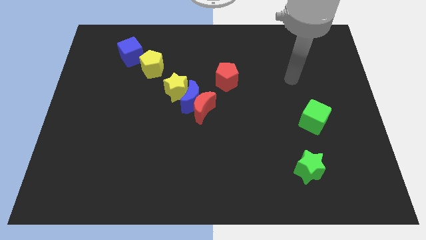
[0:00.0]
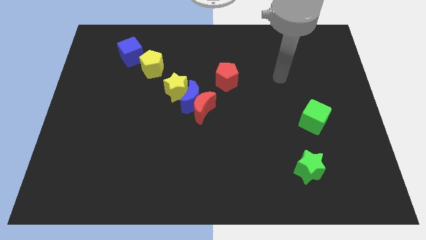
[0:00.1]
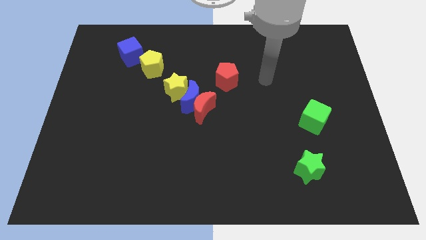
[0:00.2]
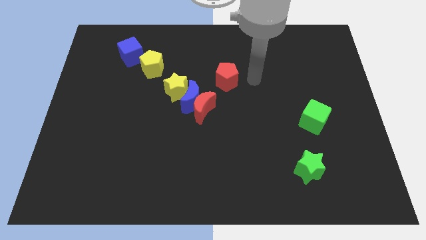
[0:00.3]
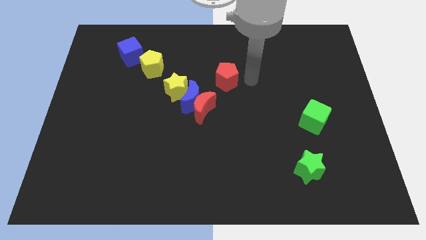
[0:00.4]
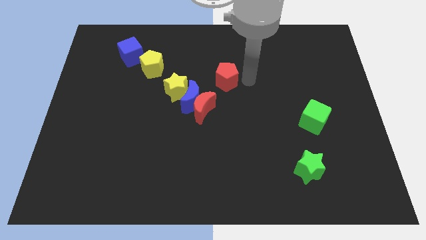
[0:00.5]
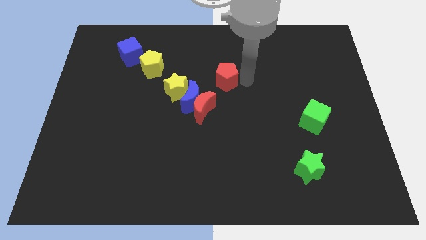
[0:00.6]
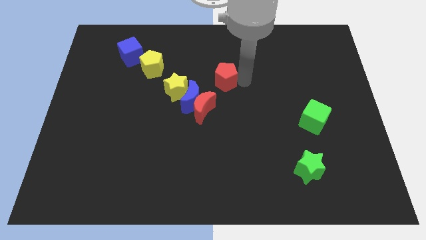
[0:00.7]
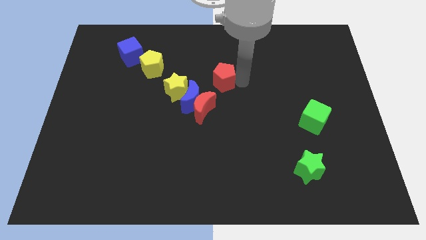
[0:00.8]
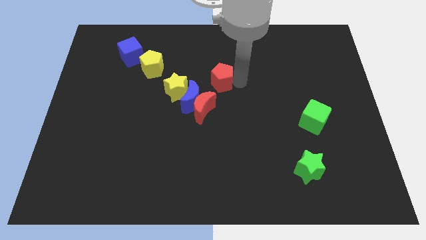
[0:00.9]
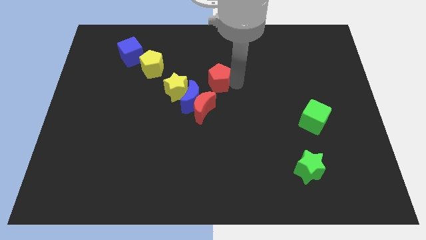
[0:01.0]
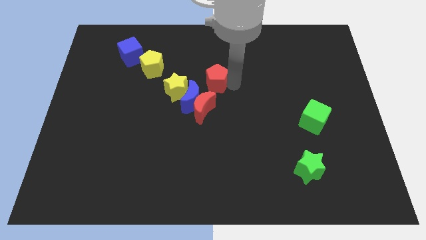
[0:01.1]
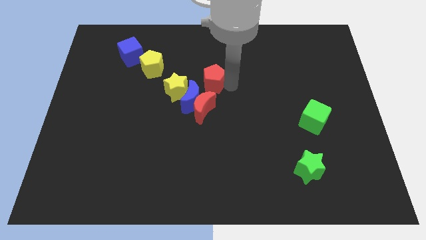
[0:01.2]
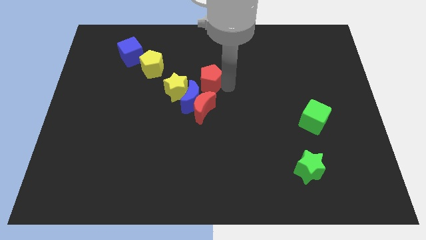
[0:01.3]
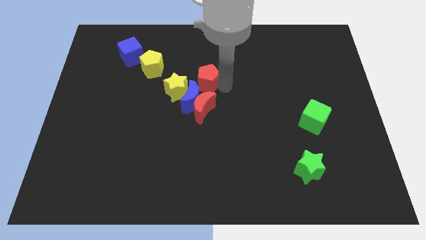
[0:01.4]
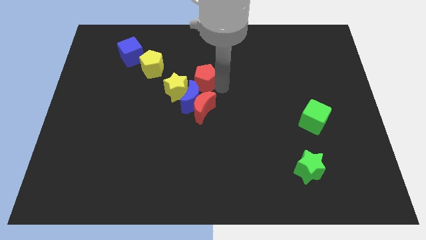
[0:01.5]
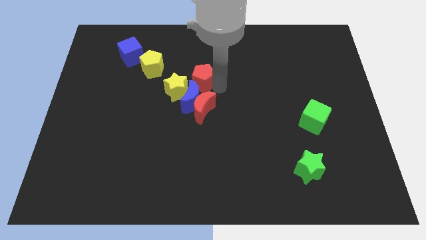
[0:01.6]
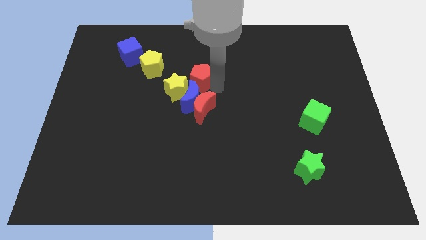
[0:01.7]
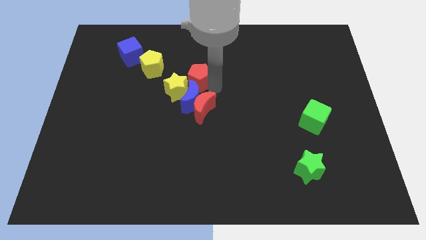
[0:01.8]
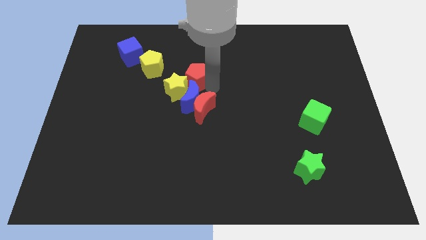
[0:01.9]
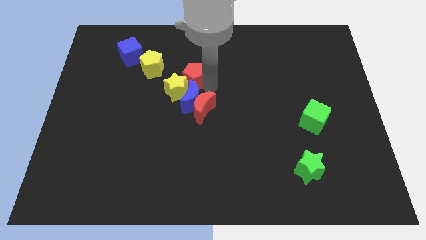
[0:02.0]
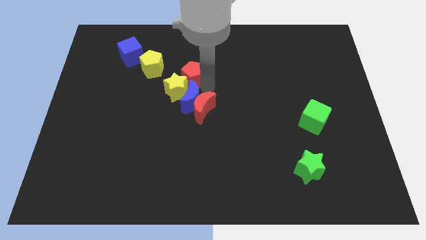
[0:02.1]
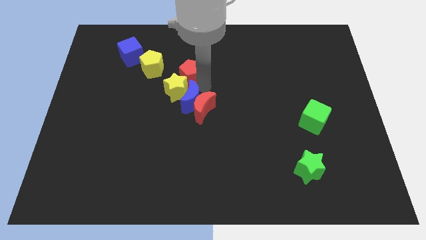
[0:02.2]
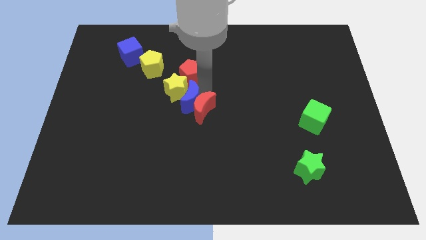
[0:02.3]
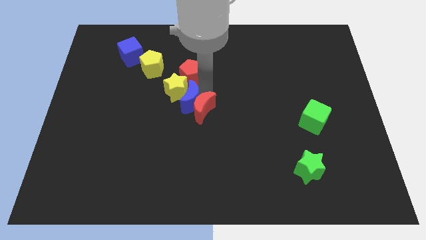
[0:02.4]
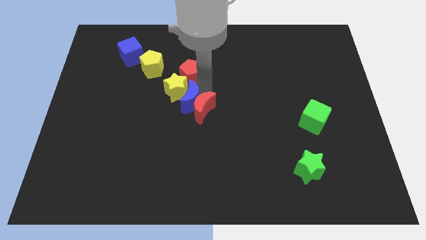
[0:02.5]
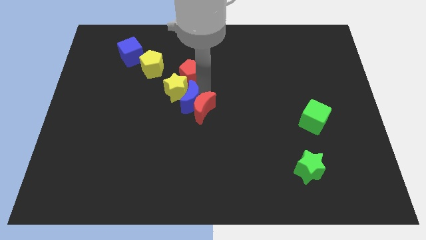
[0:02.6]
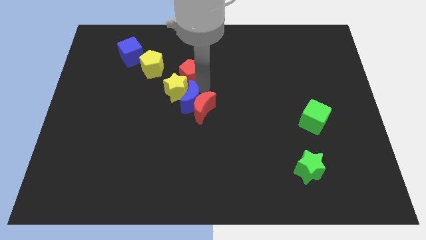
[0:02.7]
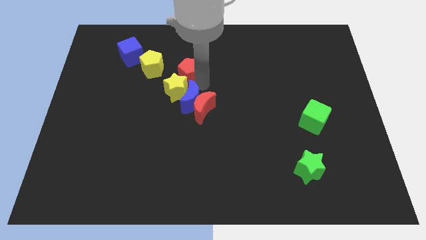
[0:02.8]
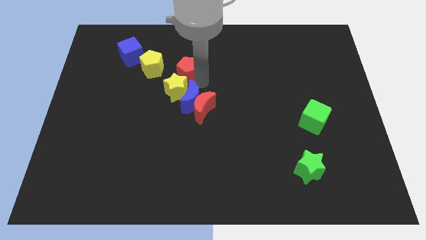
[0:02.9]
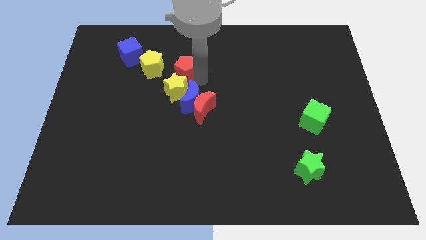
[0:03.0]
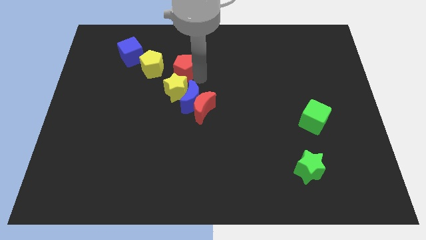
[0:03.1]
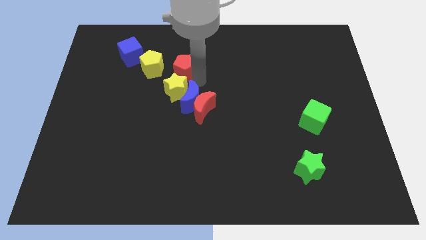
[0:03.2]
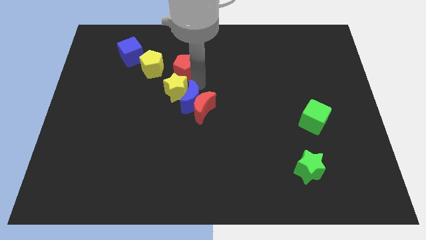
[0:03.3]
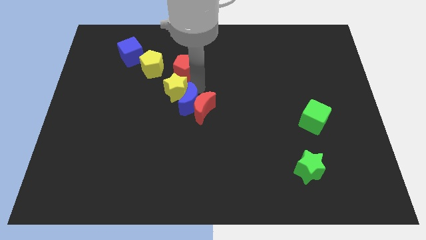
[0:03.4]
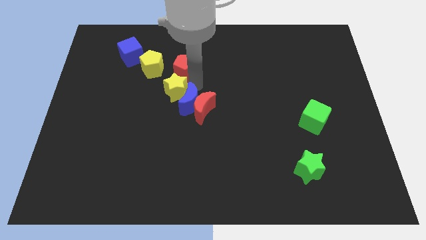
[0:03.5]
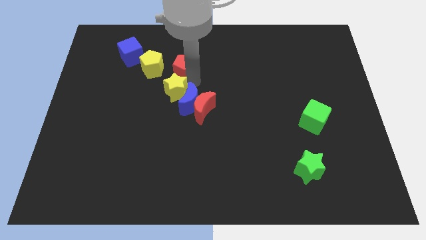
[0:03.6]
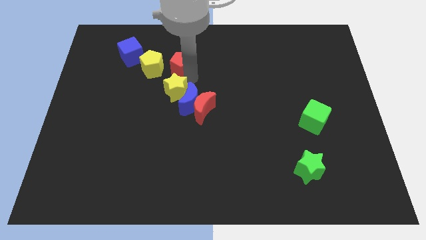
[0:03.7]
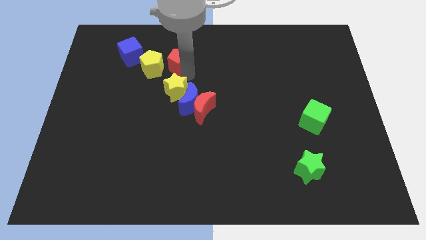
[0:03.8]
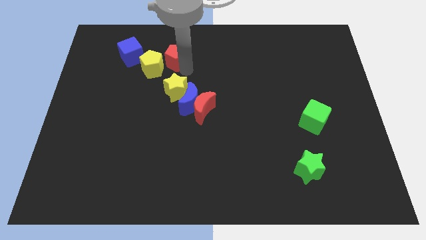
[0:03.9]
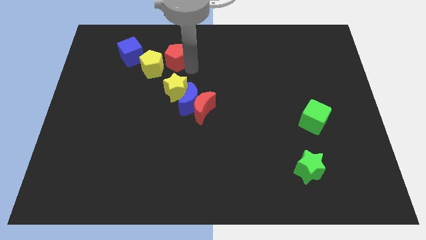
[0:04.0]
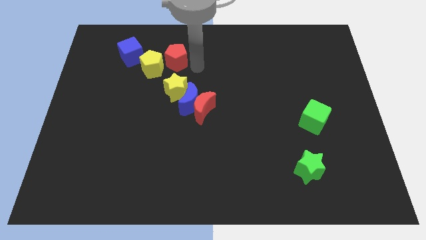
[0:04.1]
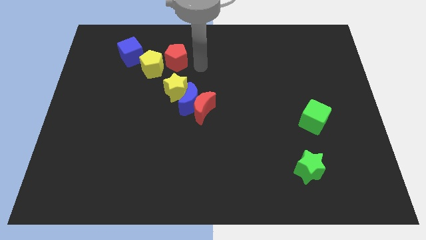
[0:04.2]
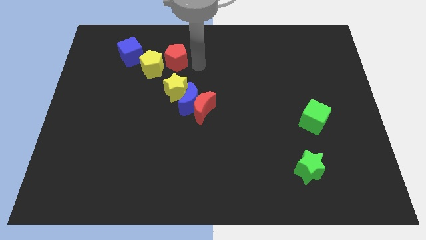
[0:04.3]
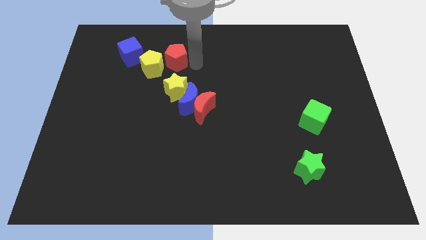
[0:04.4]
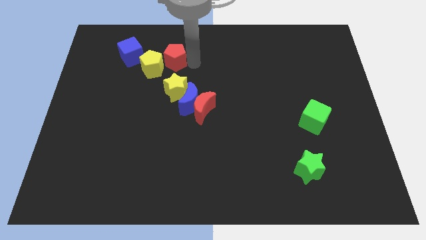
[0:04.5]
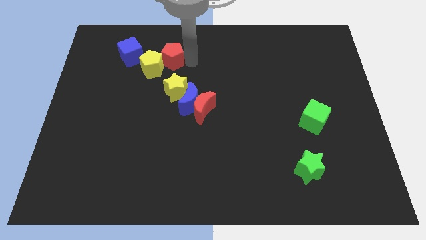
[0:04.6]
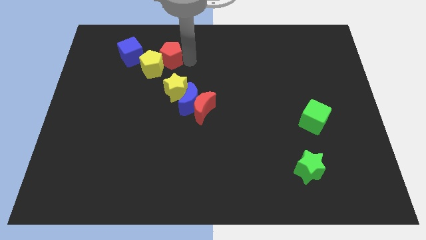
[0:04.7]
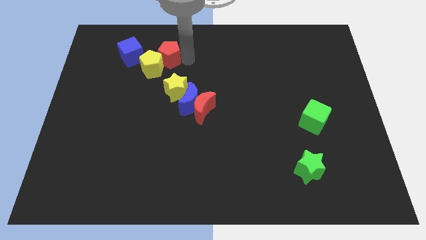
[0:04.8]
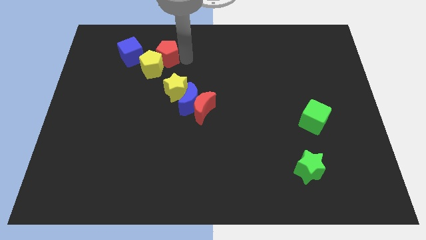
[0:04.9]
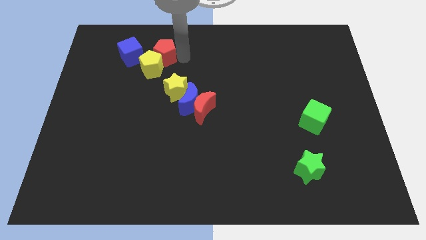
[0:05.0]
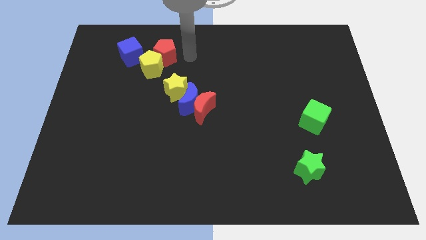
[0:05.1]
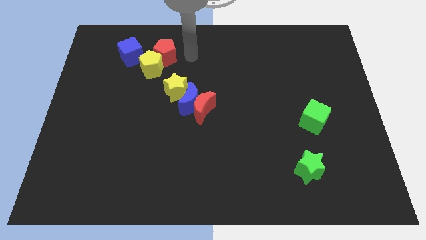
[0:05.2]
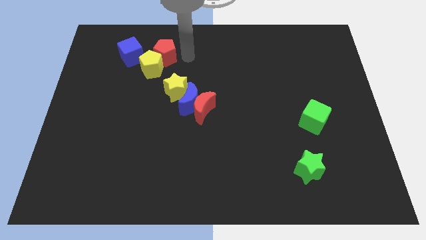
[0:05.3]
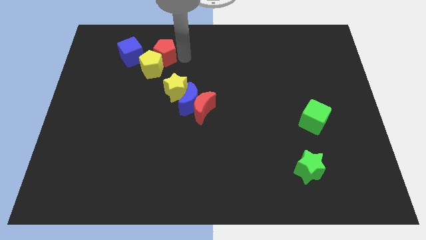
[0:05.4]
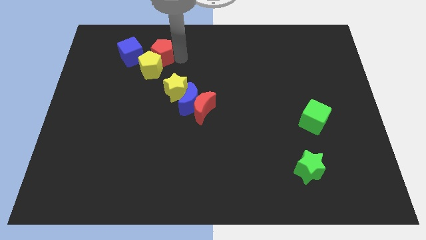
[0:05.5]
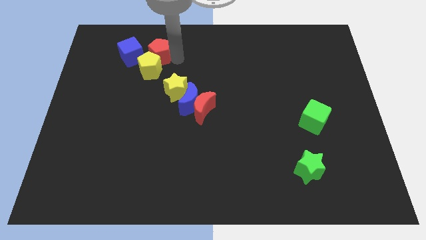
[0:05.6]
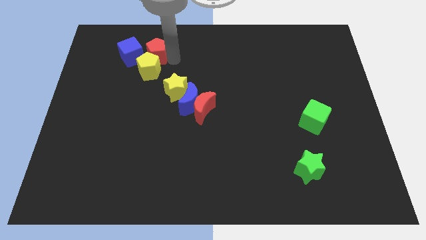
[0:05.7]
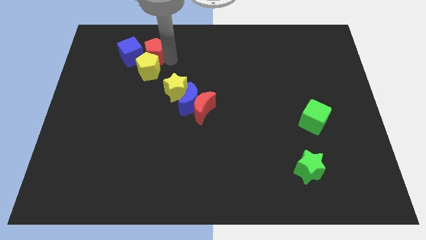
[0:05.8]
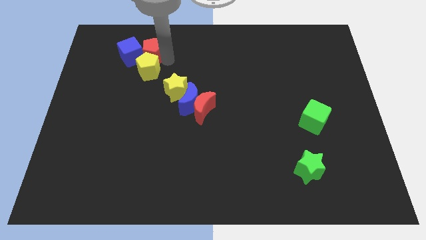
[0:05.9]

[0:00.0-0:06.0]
move the red pentagon next to the blue cube

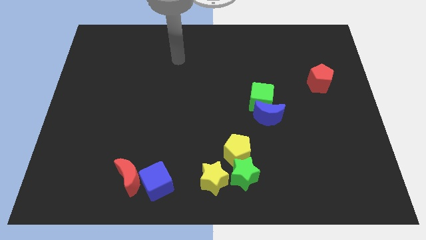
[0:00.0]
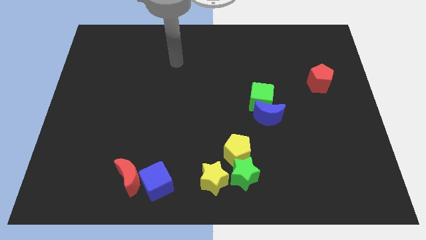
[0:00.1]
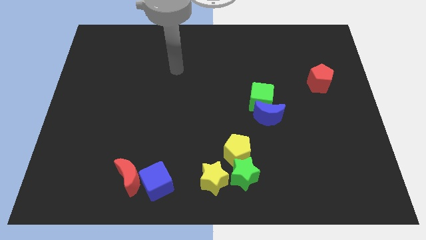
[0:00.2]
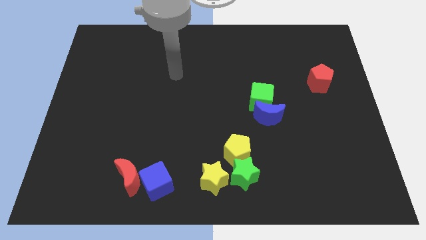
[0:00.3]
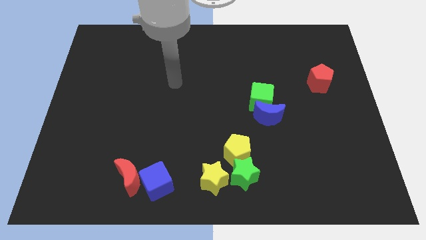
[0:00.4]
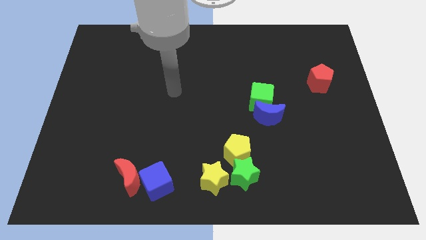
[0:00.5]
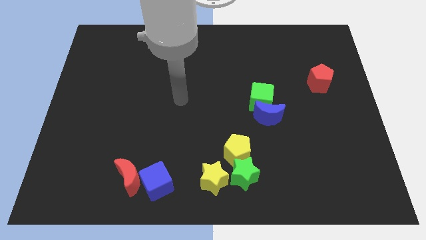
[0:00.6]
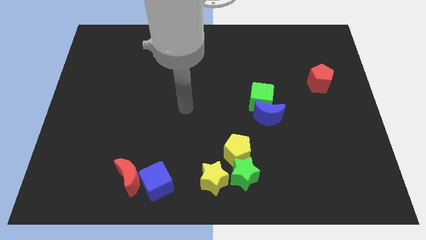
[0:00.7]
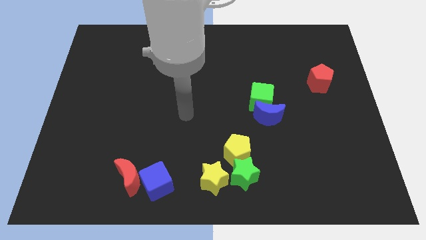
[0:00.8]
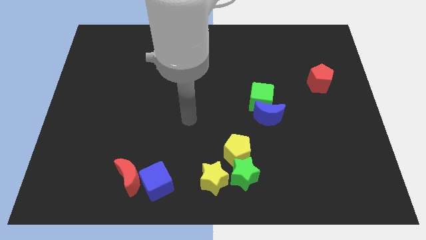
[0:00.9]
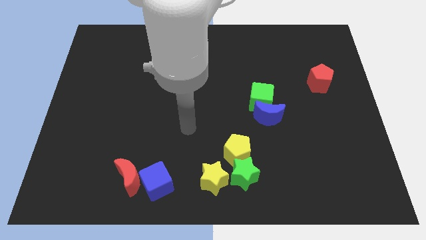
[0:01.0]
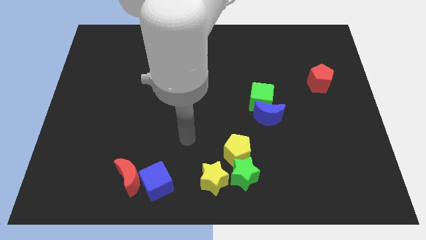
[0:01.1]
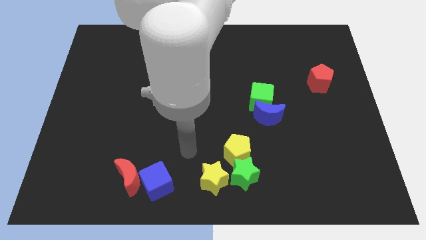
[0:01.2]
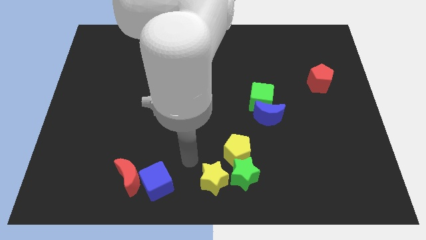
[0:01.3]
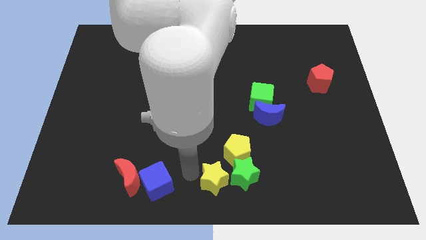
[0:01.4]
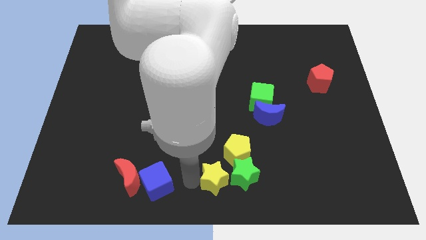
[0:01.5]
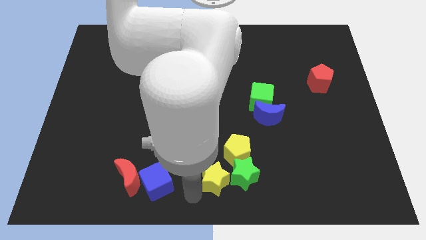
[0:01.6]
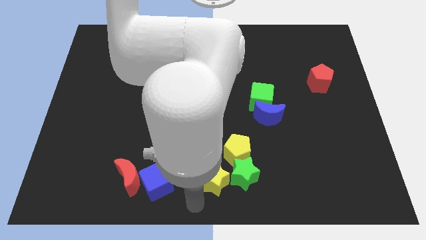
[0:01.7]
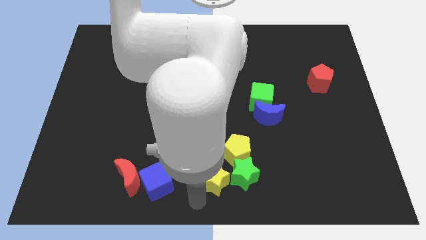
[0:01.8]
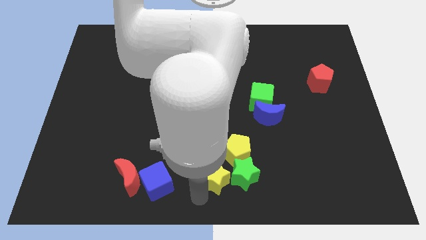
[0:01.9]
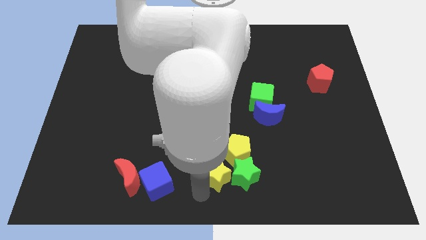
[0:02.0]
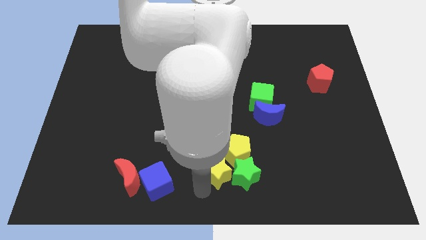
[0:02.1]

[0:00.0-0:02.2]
move the yellow star close to the yellow pentagon
